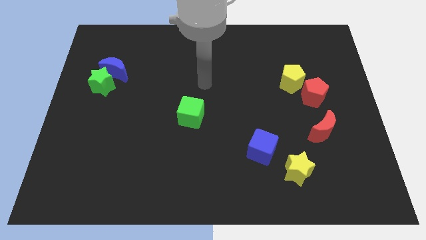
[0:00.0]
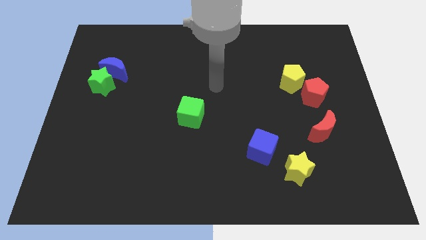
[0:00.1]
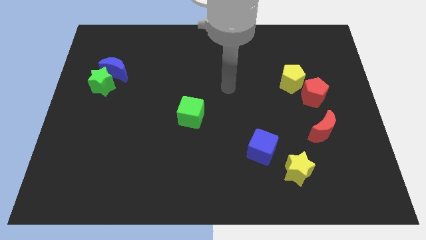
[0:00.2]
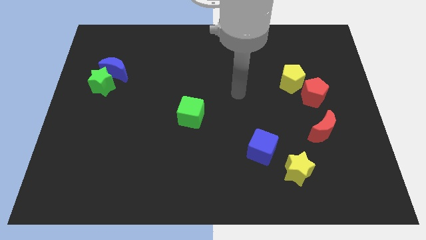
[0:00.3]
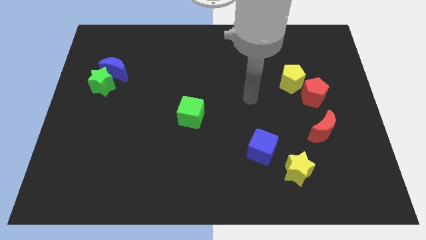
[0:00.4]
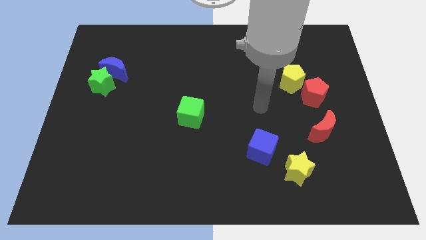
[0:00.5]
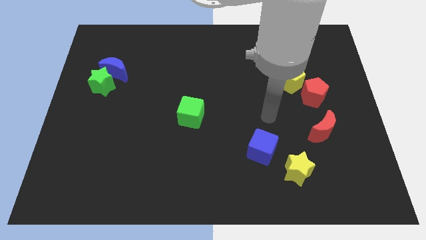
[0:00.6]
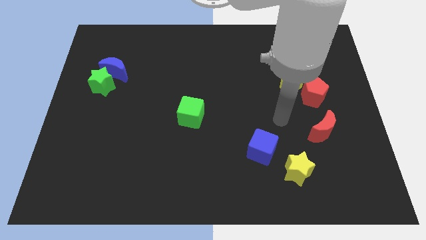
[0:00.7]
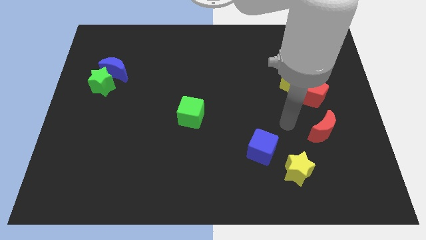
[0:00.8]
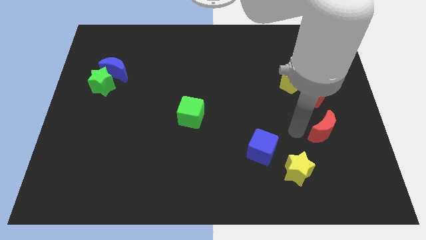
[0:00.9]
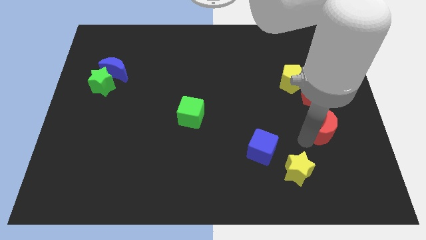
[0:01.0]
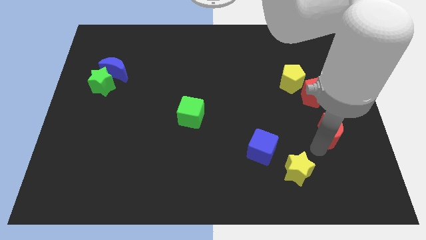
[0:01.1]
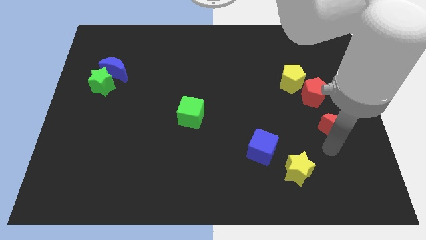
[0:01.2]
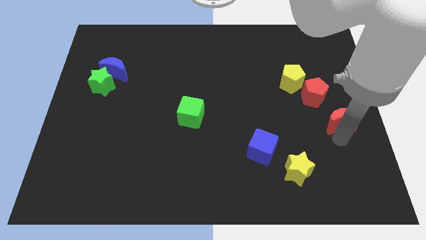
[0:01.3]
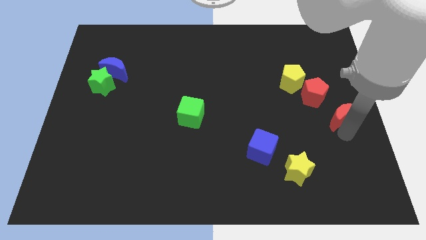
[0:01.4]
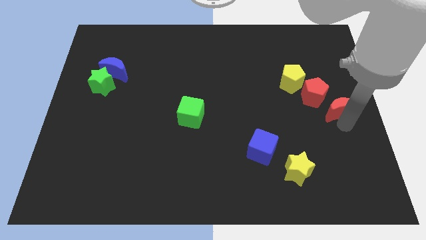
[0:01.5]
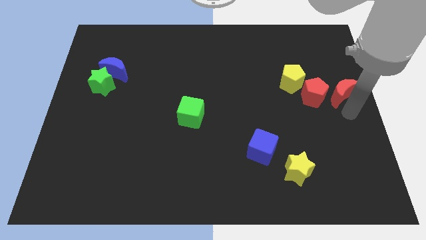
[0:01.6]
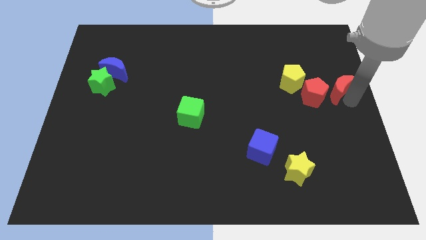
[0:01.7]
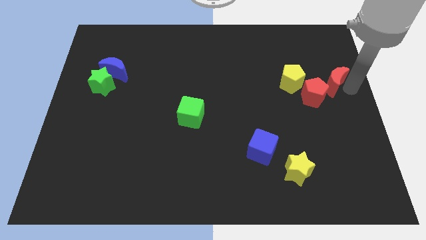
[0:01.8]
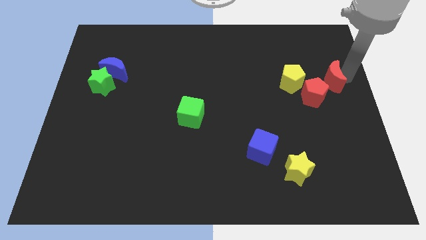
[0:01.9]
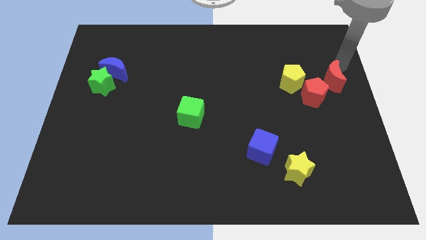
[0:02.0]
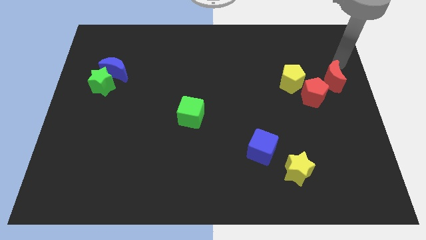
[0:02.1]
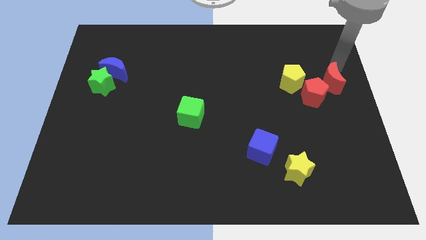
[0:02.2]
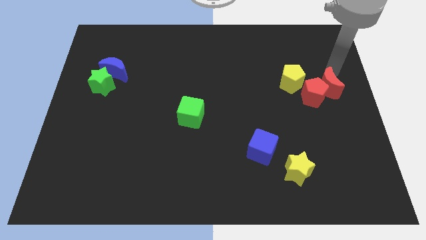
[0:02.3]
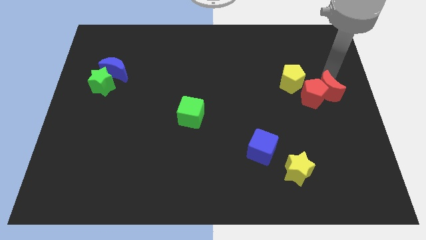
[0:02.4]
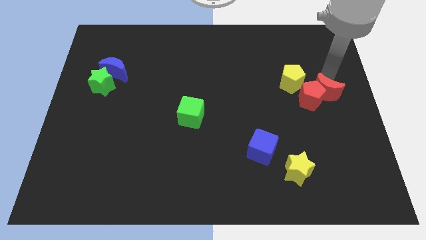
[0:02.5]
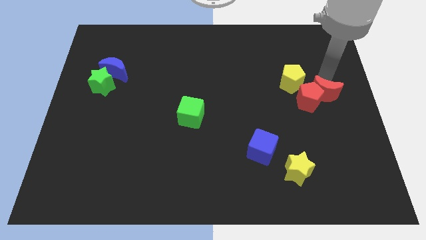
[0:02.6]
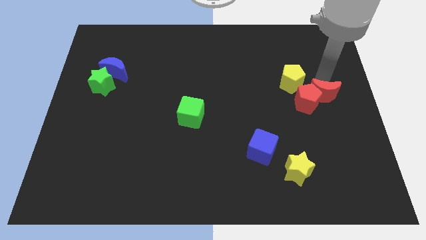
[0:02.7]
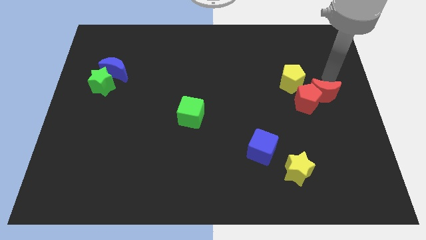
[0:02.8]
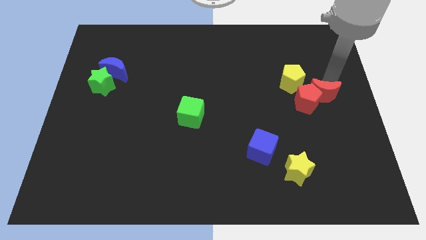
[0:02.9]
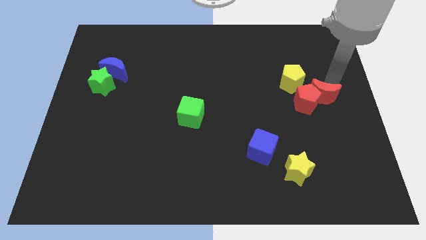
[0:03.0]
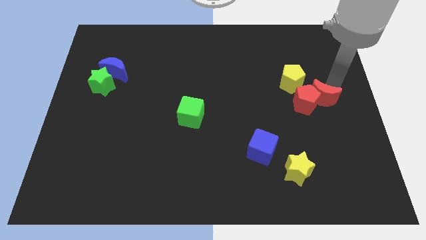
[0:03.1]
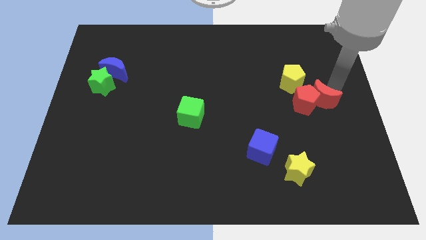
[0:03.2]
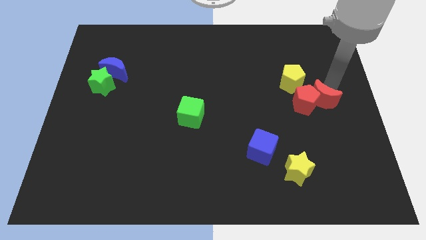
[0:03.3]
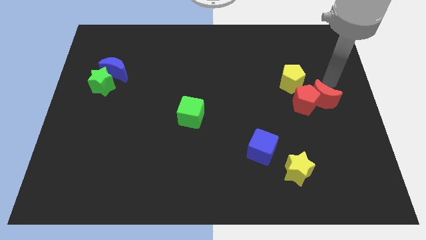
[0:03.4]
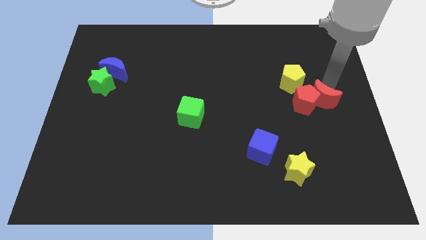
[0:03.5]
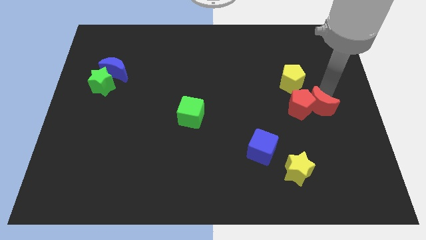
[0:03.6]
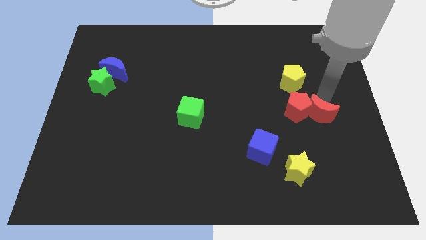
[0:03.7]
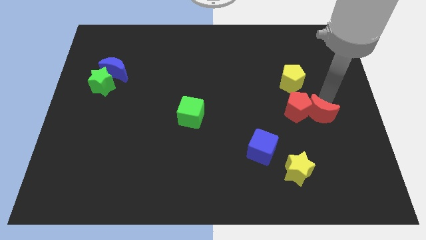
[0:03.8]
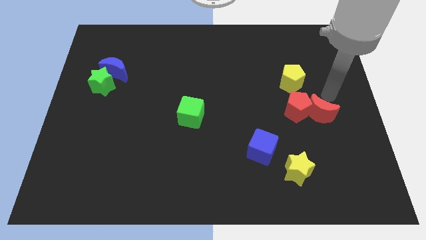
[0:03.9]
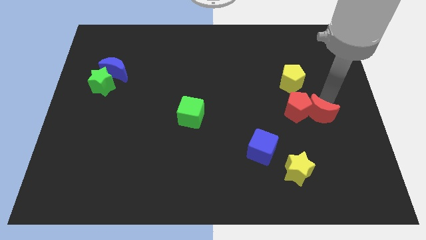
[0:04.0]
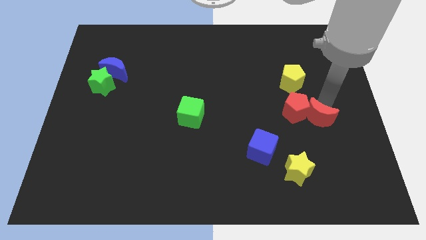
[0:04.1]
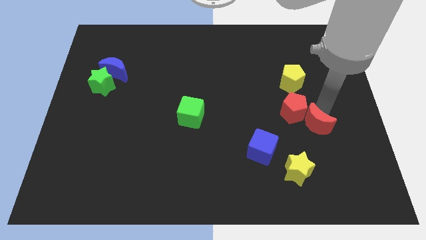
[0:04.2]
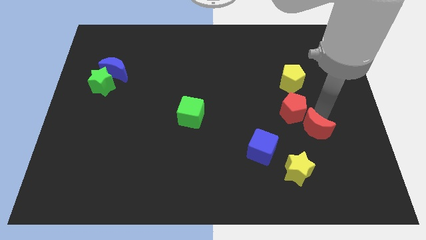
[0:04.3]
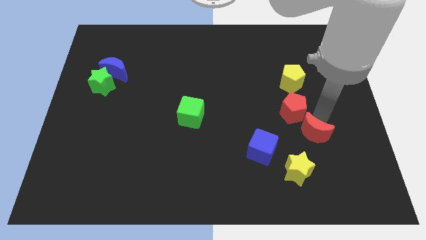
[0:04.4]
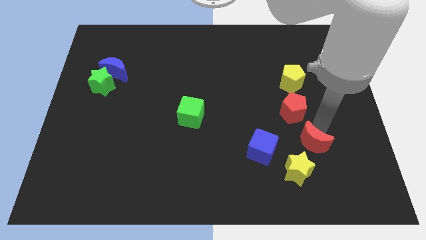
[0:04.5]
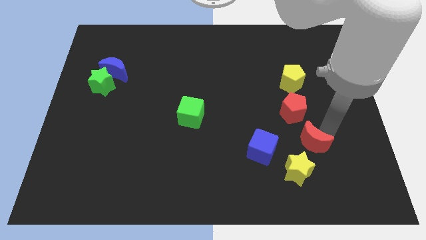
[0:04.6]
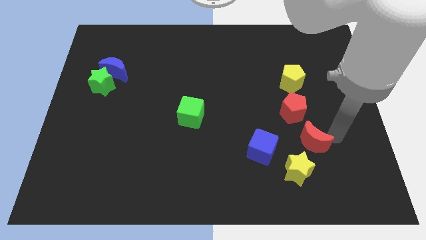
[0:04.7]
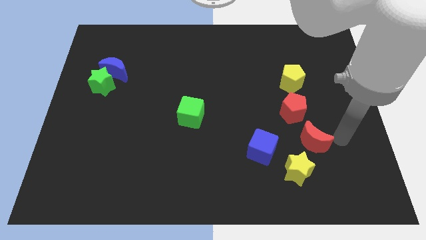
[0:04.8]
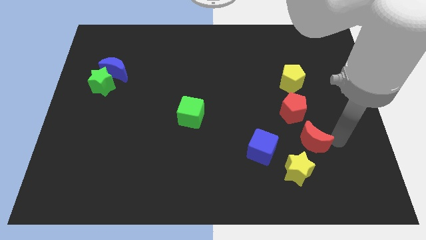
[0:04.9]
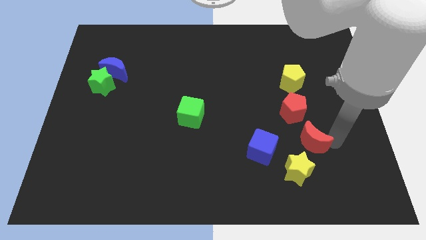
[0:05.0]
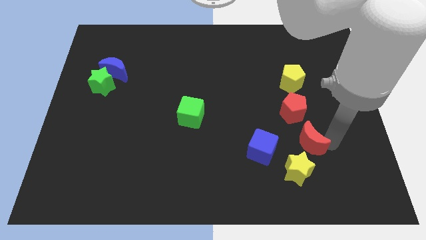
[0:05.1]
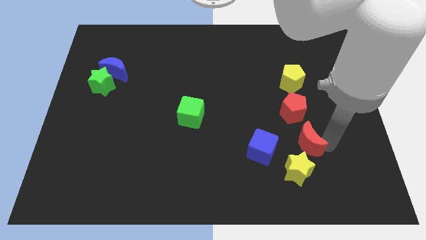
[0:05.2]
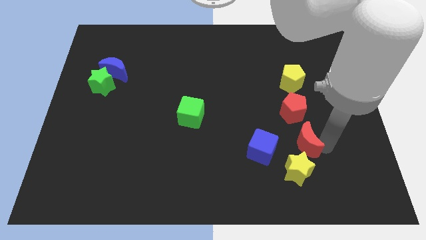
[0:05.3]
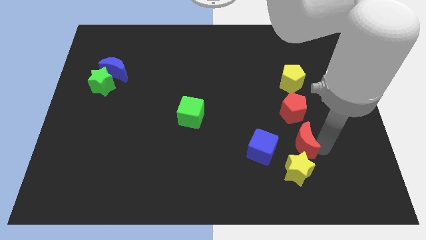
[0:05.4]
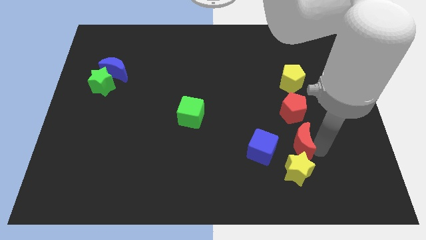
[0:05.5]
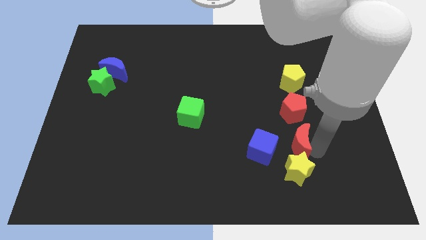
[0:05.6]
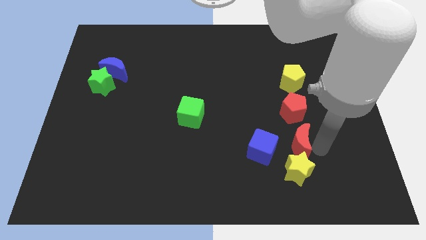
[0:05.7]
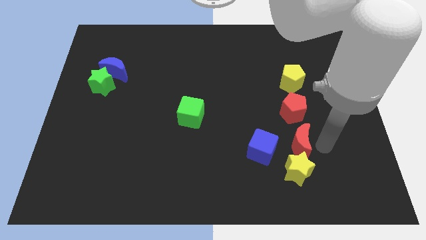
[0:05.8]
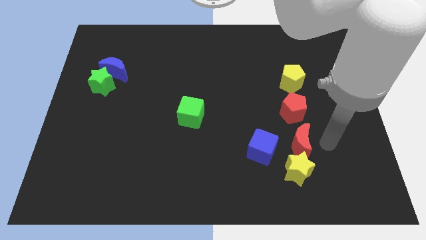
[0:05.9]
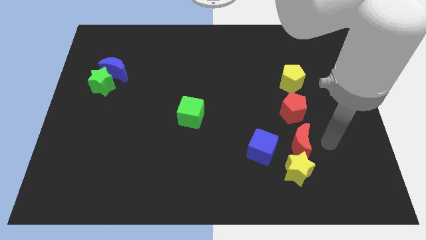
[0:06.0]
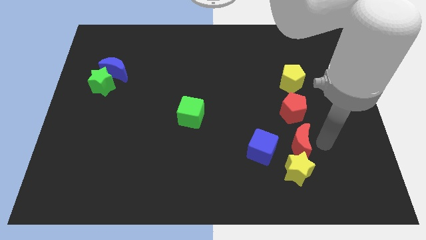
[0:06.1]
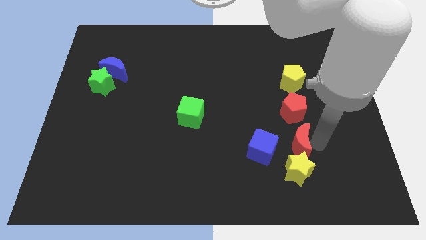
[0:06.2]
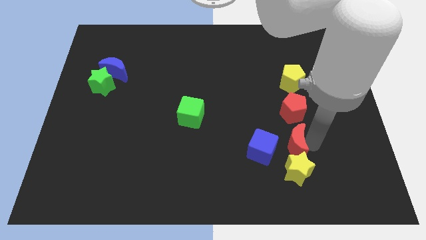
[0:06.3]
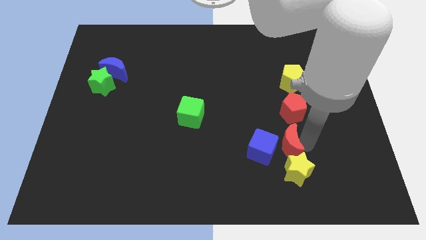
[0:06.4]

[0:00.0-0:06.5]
push the red moon towards the blue cube

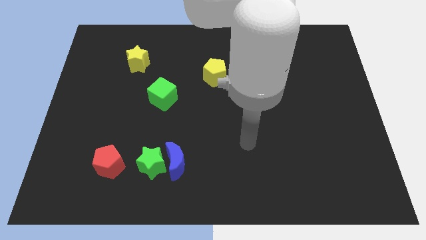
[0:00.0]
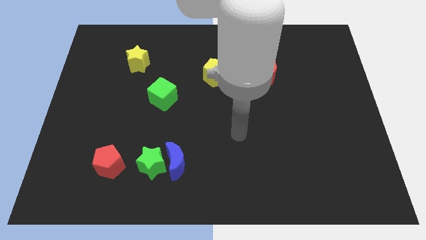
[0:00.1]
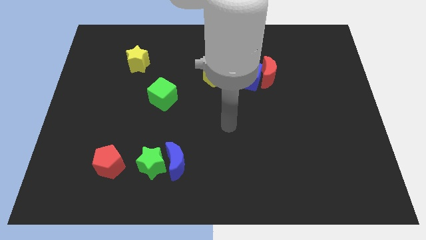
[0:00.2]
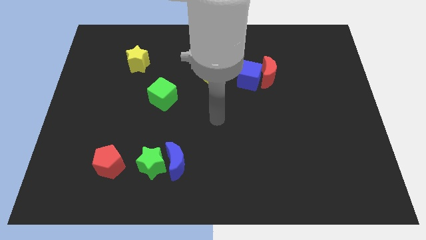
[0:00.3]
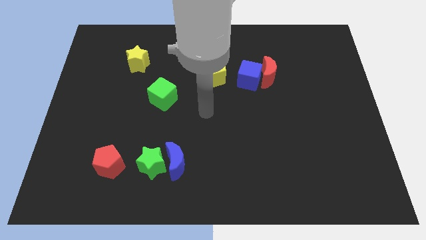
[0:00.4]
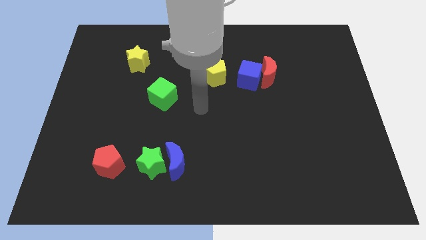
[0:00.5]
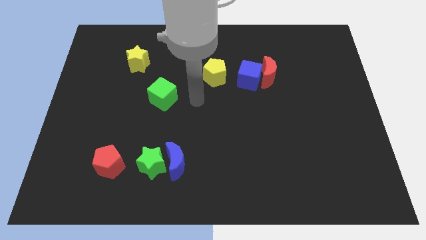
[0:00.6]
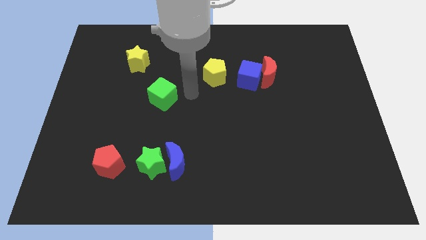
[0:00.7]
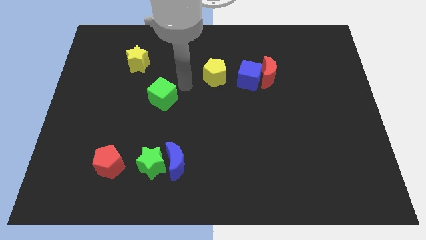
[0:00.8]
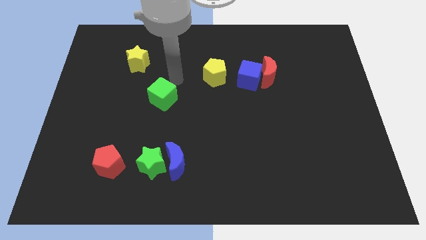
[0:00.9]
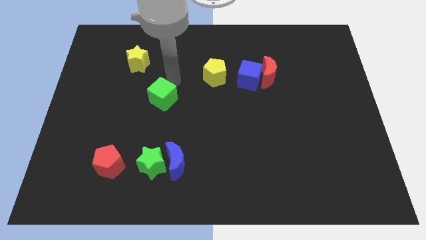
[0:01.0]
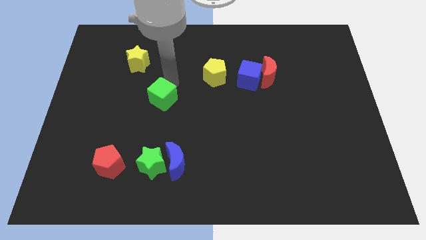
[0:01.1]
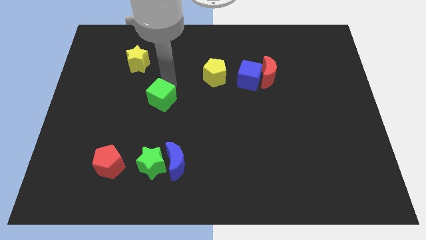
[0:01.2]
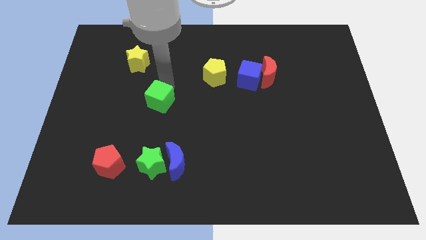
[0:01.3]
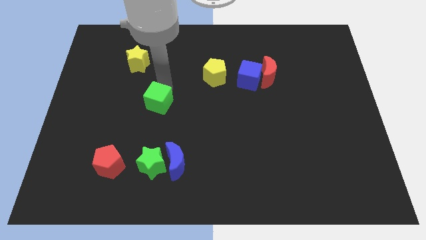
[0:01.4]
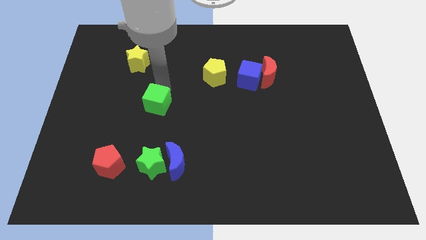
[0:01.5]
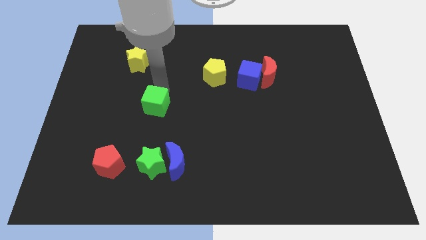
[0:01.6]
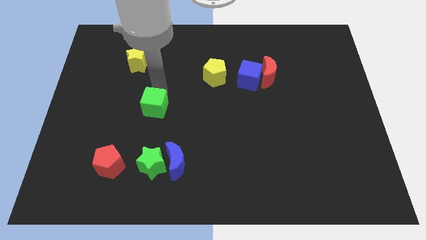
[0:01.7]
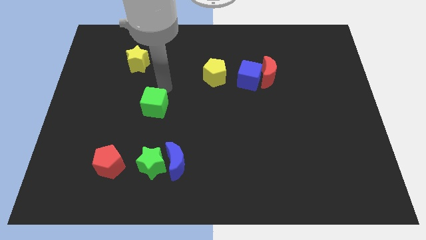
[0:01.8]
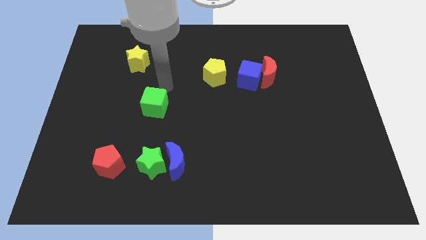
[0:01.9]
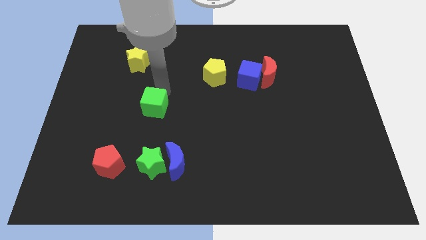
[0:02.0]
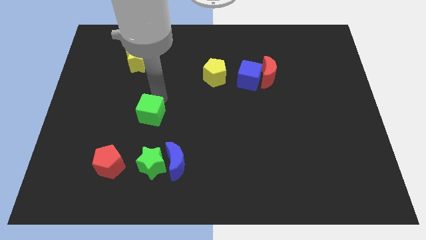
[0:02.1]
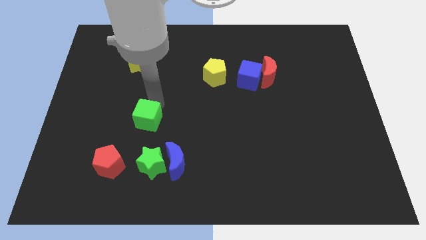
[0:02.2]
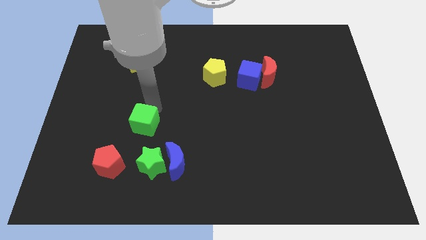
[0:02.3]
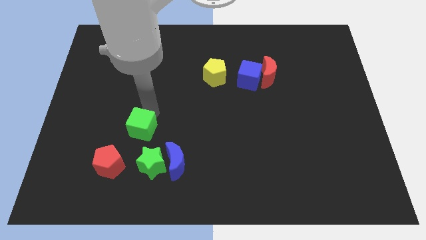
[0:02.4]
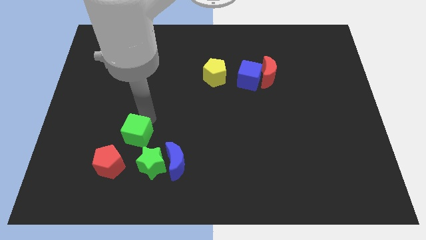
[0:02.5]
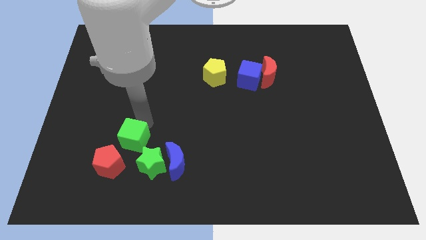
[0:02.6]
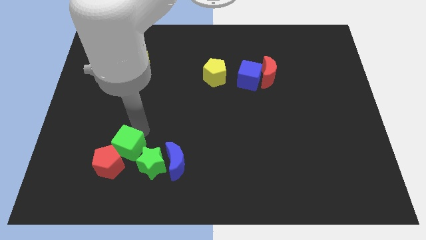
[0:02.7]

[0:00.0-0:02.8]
move the green cube close to the red pentagon
